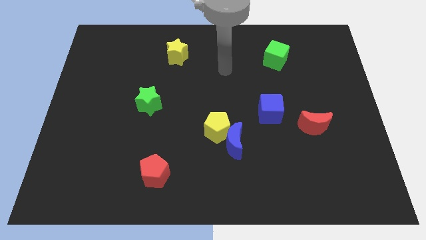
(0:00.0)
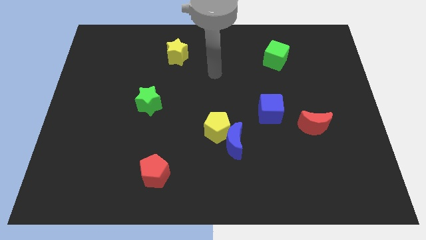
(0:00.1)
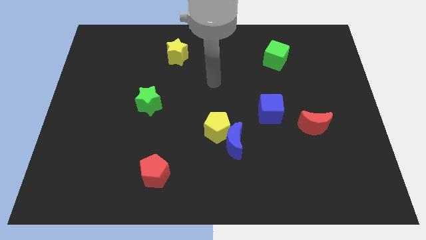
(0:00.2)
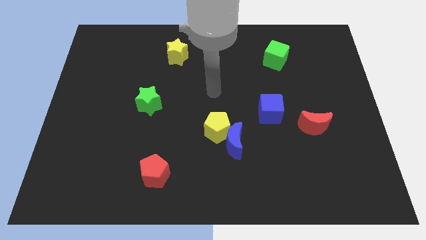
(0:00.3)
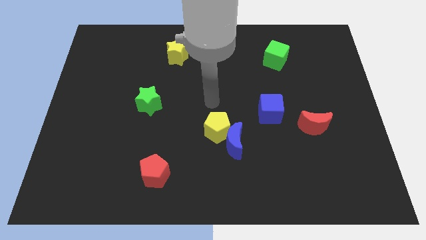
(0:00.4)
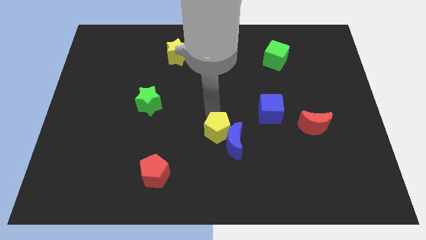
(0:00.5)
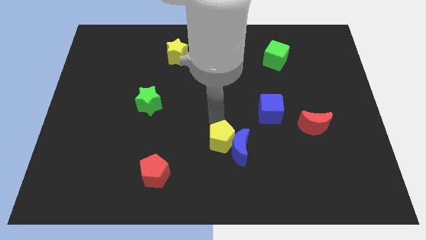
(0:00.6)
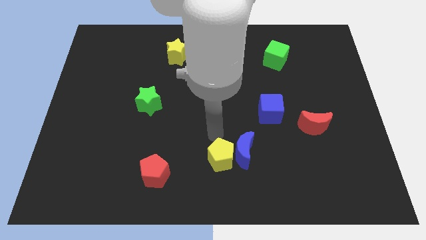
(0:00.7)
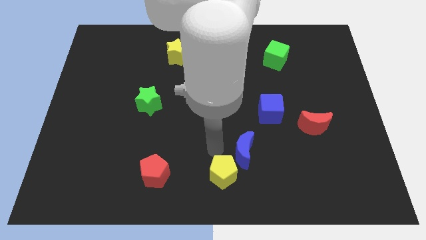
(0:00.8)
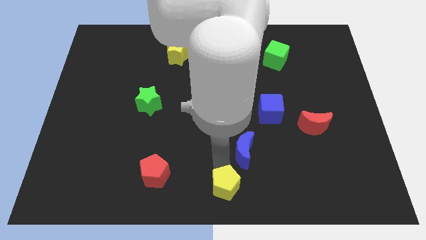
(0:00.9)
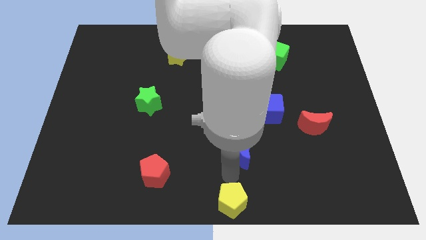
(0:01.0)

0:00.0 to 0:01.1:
pull the blue moon apart from the yellow pentagon

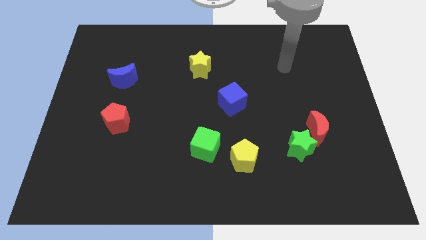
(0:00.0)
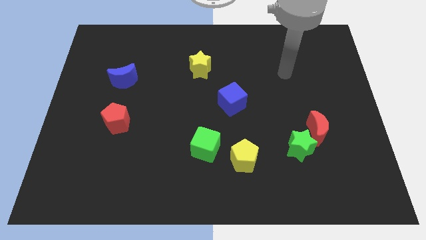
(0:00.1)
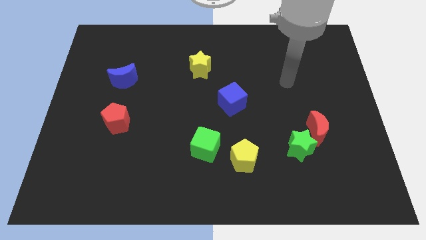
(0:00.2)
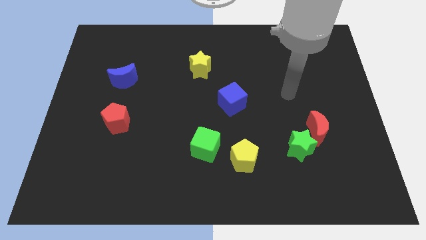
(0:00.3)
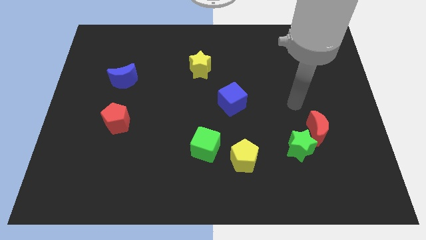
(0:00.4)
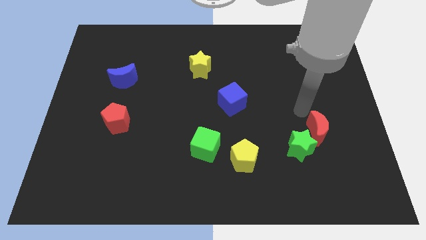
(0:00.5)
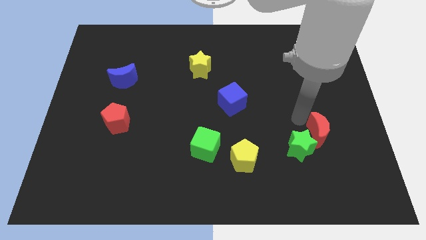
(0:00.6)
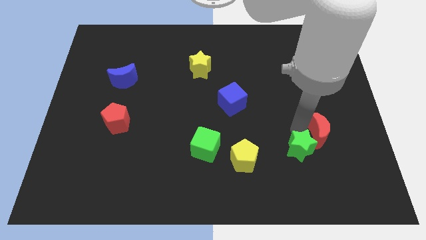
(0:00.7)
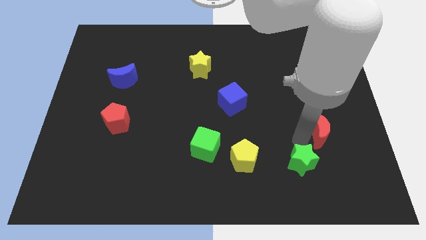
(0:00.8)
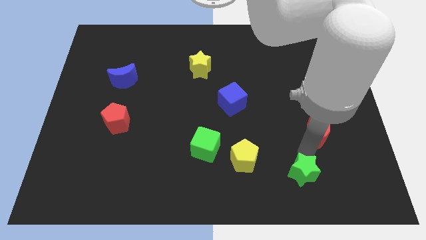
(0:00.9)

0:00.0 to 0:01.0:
move the red moon away from the green star

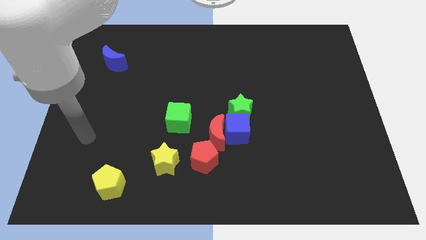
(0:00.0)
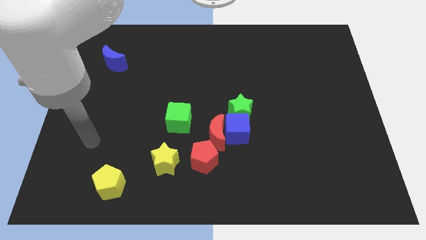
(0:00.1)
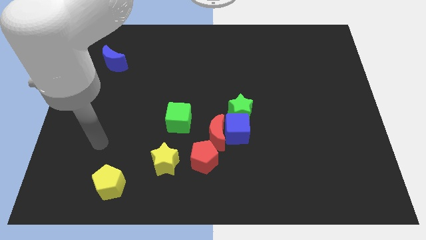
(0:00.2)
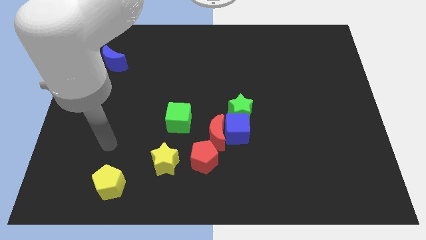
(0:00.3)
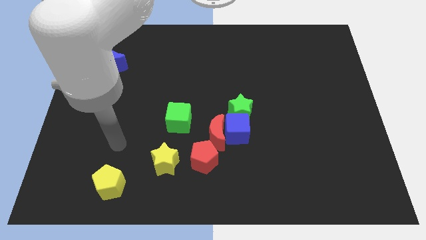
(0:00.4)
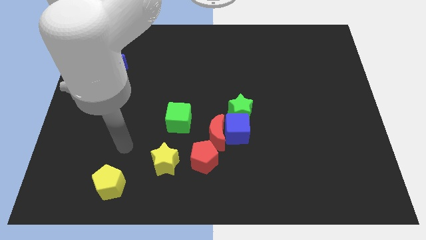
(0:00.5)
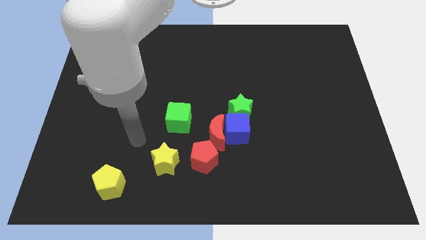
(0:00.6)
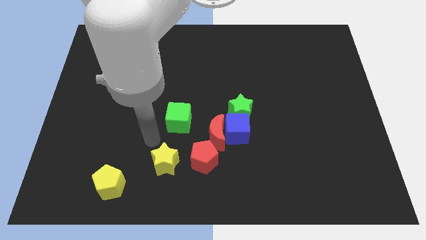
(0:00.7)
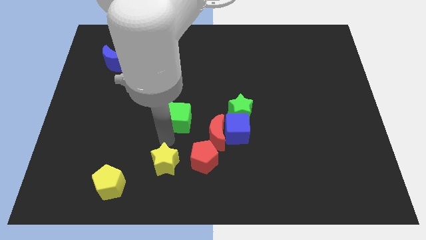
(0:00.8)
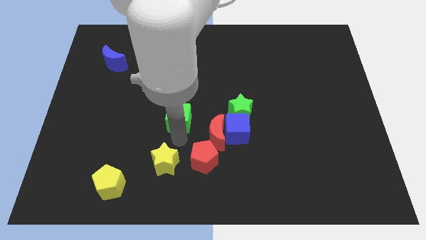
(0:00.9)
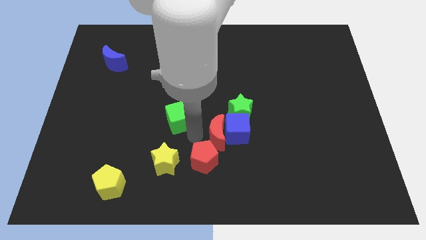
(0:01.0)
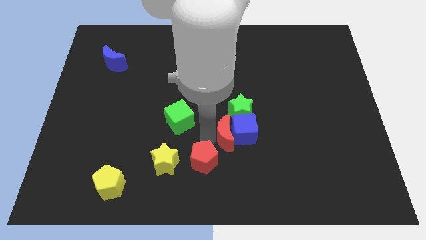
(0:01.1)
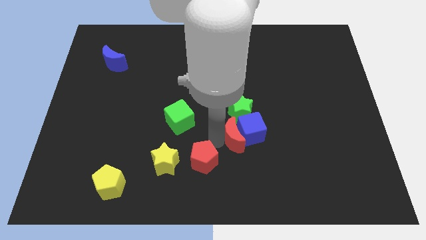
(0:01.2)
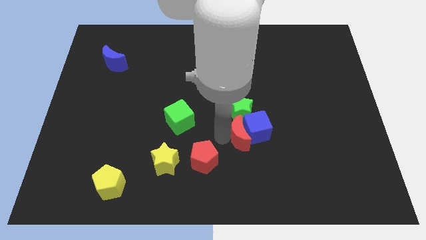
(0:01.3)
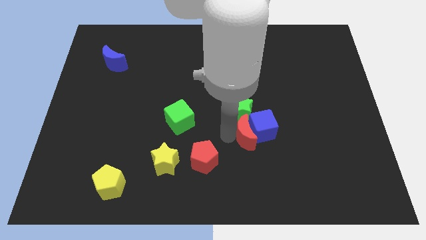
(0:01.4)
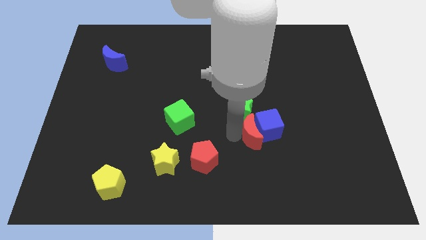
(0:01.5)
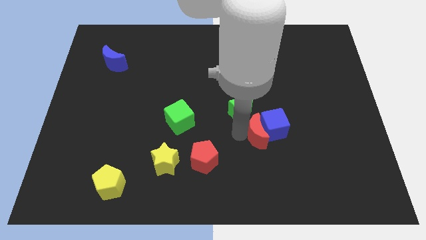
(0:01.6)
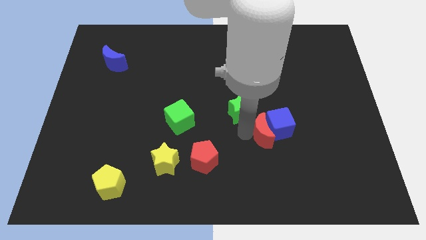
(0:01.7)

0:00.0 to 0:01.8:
move the blue cube away from the group

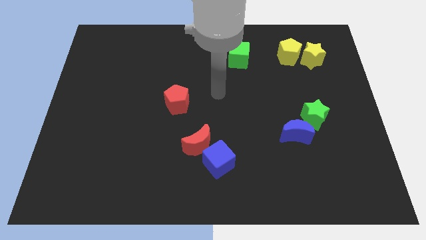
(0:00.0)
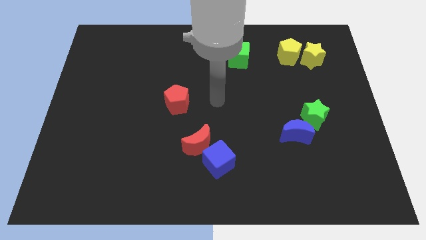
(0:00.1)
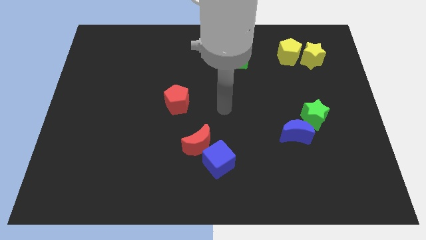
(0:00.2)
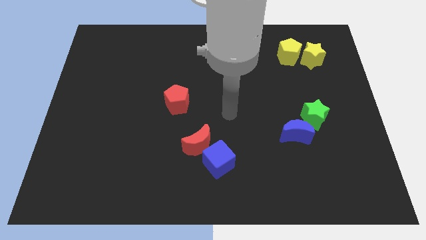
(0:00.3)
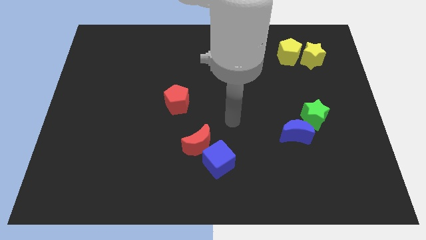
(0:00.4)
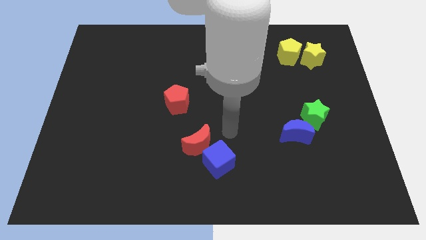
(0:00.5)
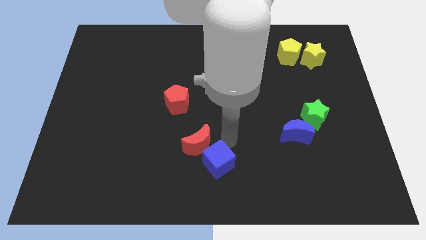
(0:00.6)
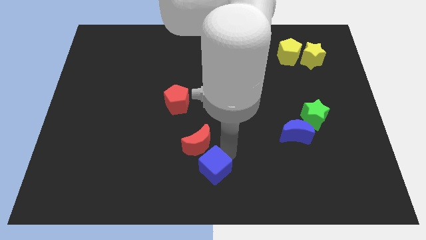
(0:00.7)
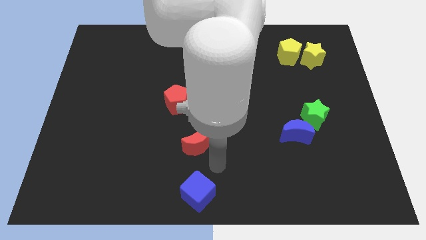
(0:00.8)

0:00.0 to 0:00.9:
pull the red moon apart from the blue cube

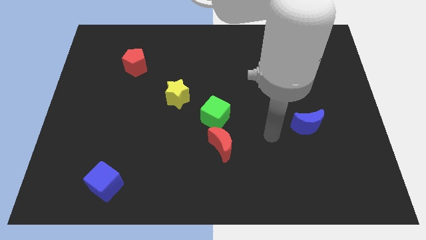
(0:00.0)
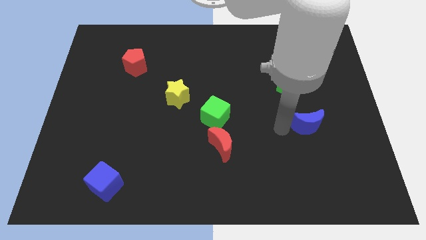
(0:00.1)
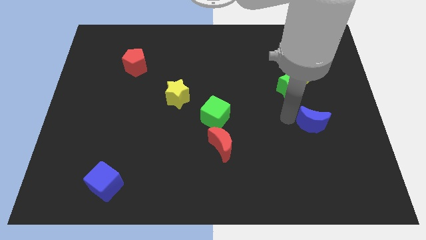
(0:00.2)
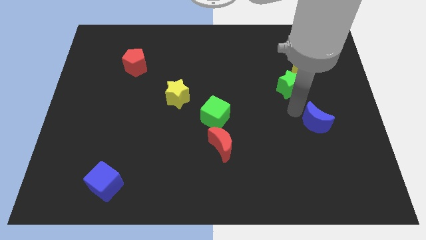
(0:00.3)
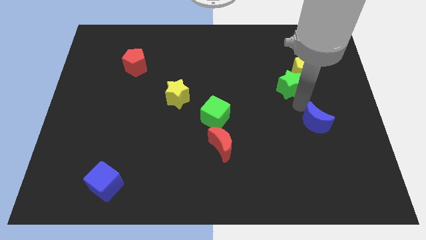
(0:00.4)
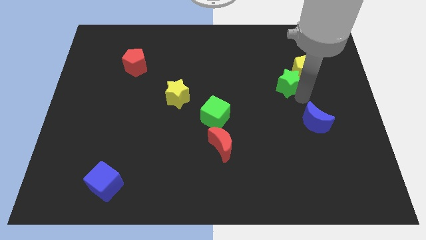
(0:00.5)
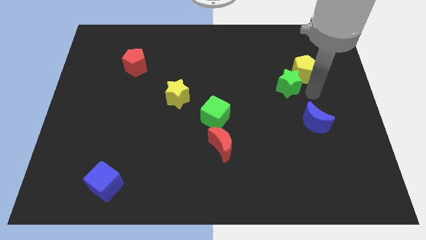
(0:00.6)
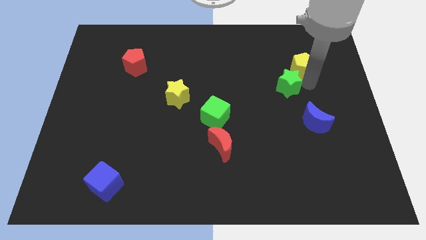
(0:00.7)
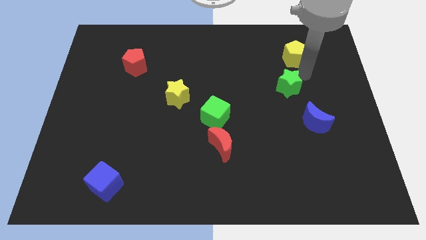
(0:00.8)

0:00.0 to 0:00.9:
move the green star away from the yellow pentagon

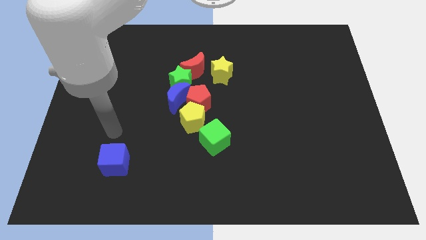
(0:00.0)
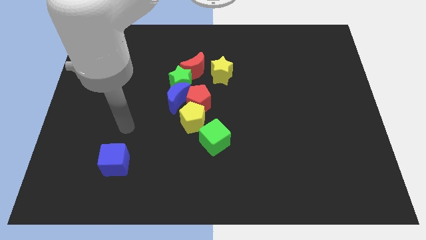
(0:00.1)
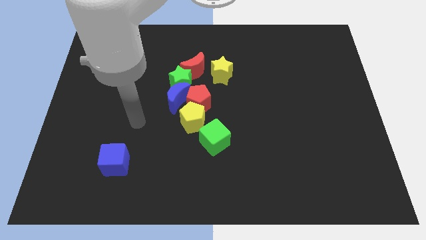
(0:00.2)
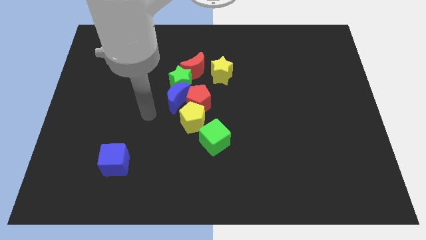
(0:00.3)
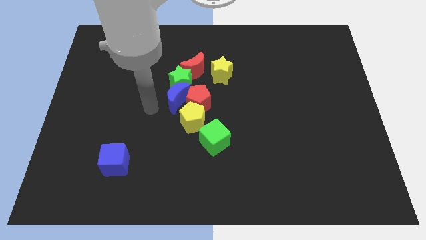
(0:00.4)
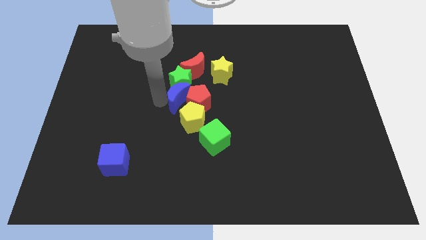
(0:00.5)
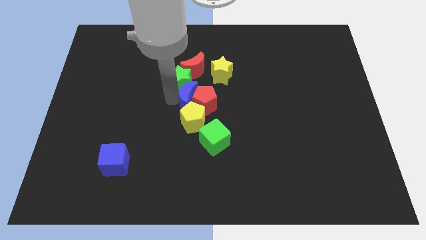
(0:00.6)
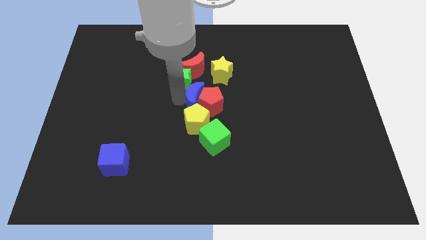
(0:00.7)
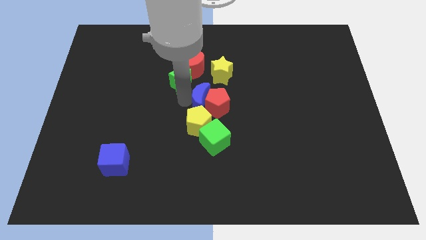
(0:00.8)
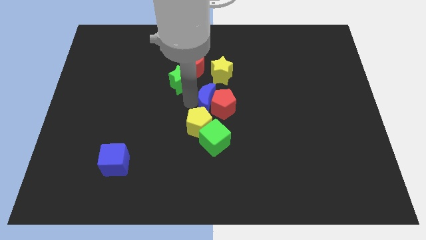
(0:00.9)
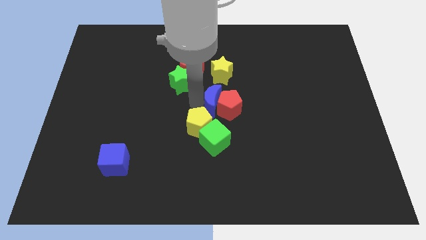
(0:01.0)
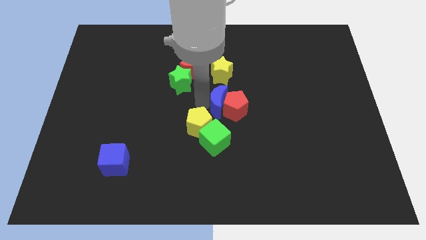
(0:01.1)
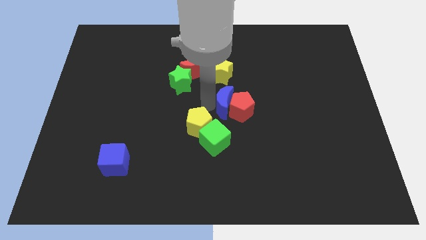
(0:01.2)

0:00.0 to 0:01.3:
separate the red pentagon from the yellow pentagon, blue moon, and green star

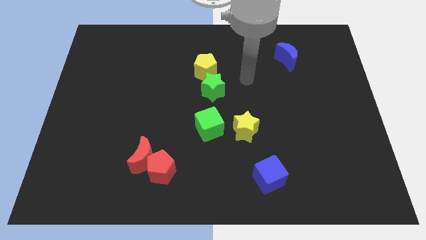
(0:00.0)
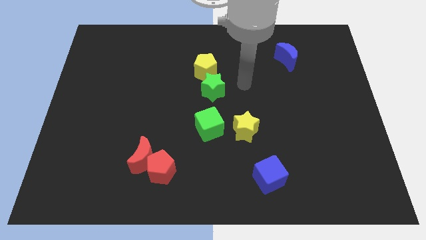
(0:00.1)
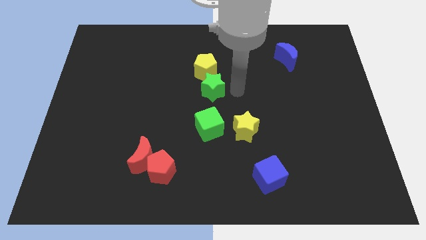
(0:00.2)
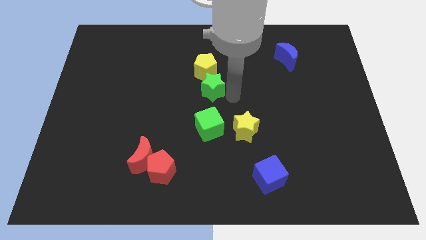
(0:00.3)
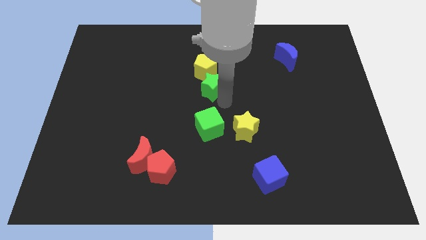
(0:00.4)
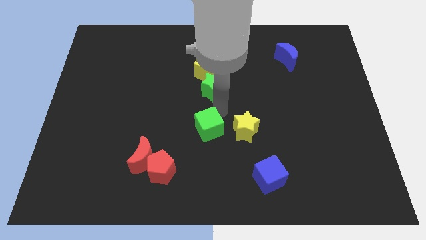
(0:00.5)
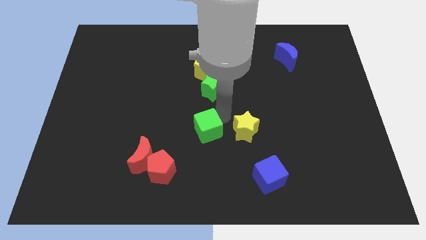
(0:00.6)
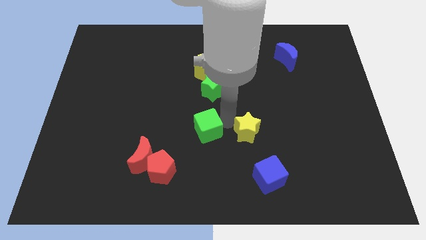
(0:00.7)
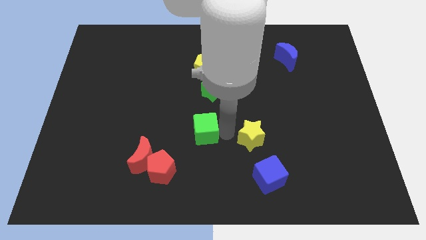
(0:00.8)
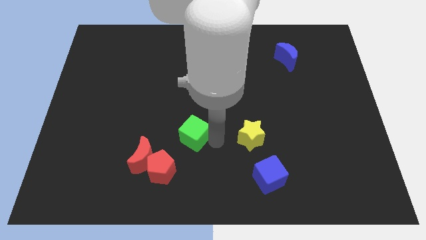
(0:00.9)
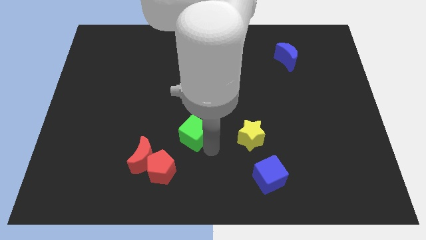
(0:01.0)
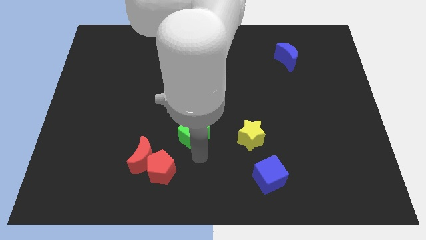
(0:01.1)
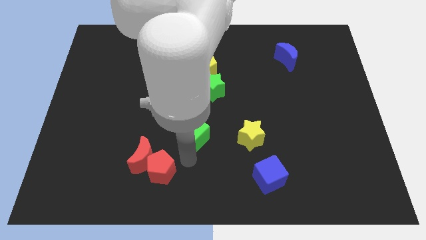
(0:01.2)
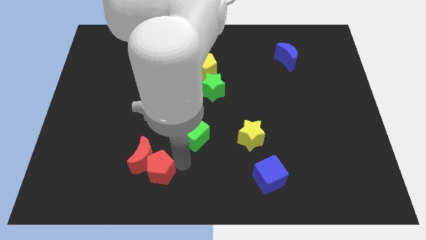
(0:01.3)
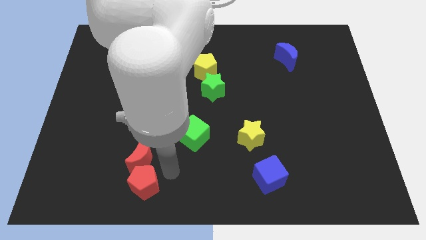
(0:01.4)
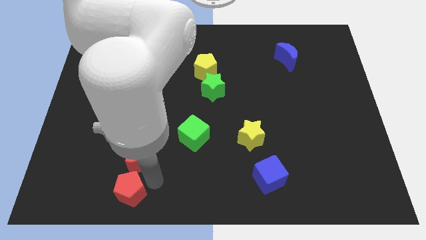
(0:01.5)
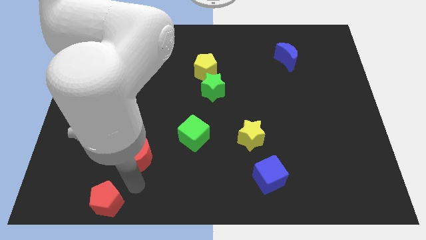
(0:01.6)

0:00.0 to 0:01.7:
pull the red moon apart from the red pentagon

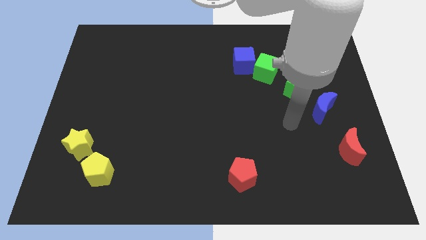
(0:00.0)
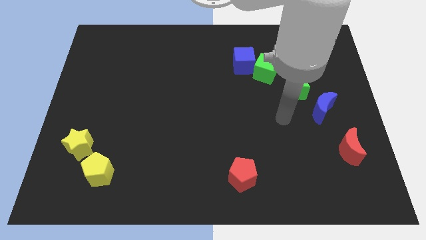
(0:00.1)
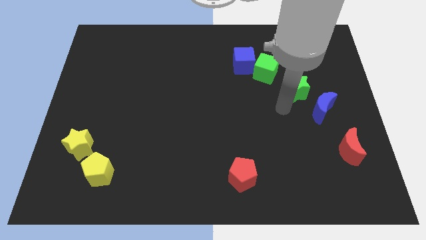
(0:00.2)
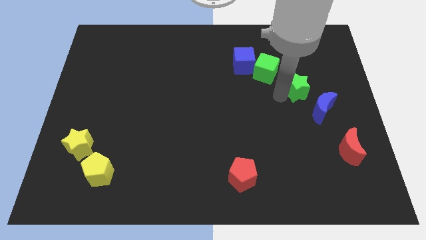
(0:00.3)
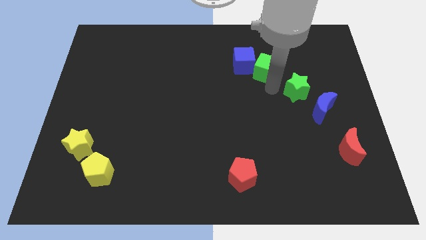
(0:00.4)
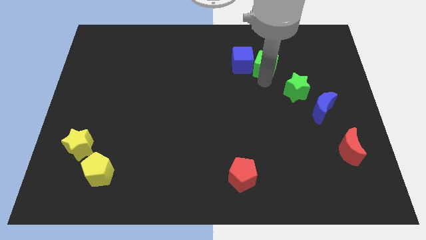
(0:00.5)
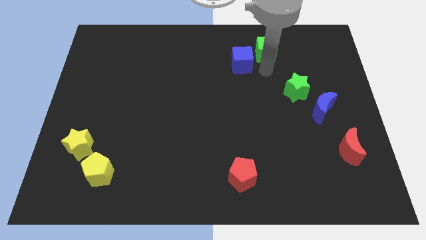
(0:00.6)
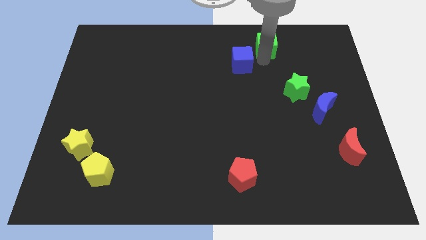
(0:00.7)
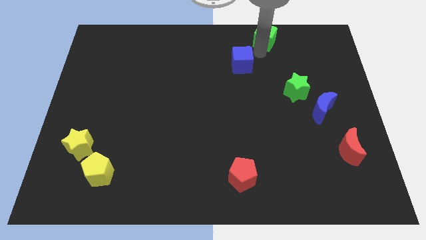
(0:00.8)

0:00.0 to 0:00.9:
separate the blue cube from the green cube
